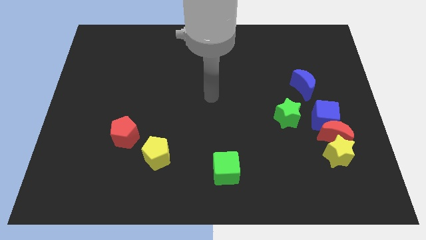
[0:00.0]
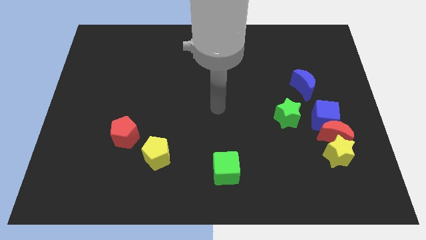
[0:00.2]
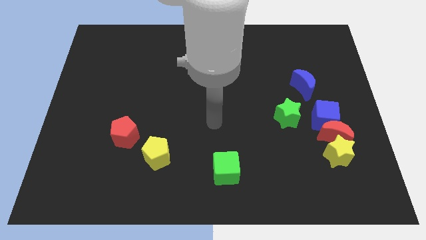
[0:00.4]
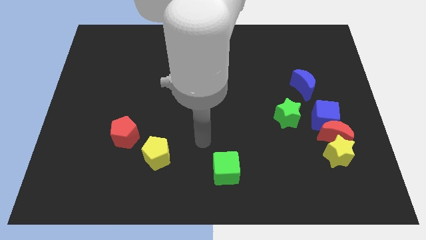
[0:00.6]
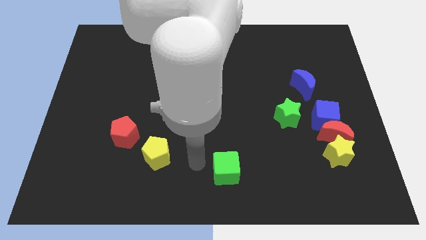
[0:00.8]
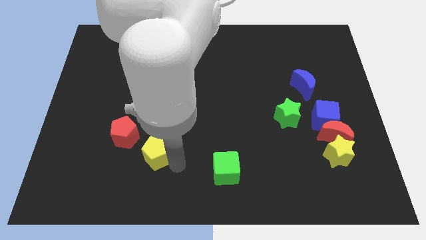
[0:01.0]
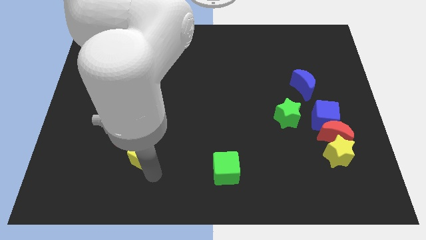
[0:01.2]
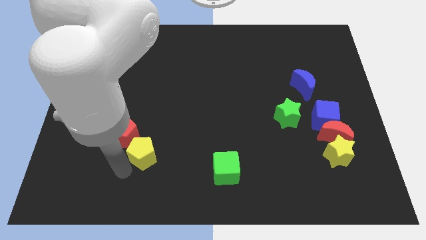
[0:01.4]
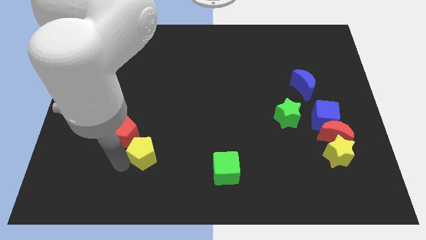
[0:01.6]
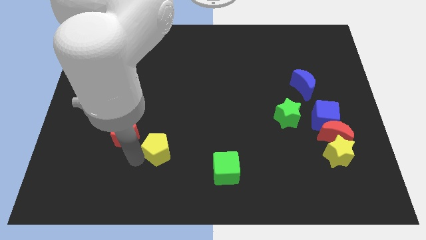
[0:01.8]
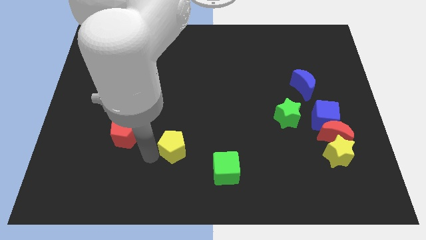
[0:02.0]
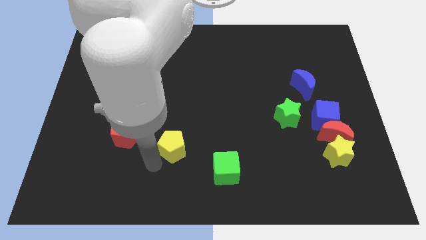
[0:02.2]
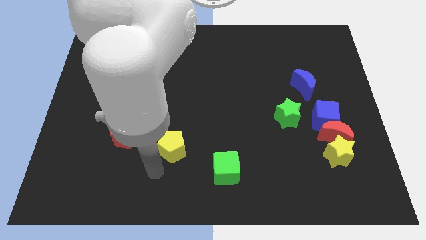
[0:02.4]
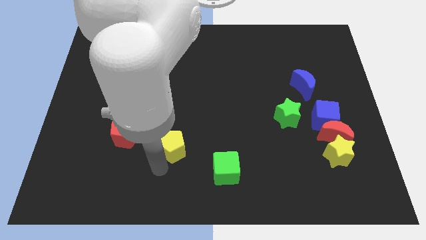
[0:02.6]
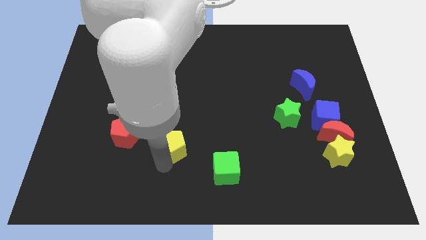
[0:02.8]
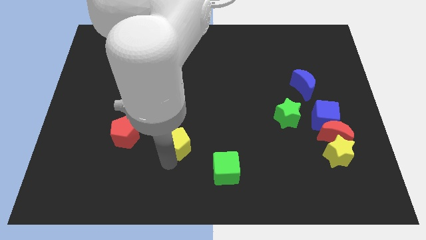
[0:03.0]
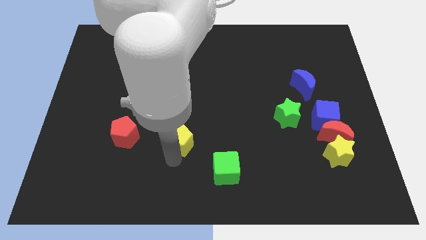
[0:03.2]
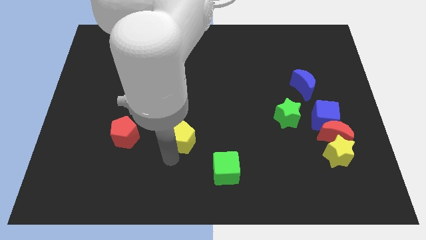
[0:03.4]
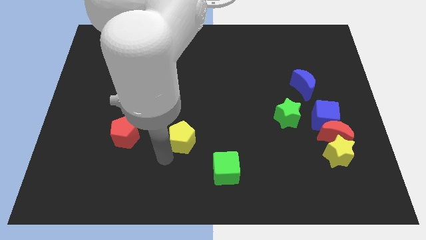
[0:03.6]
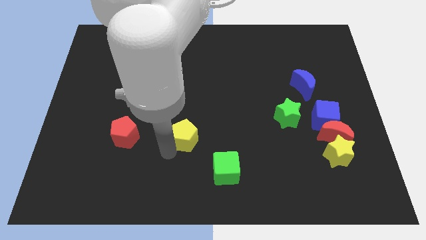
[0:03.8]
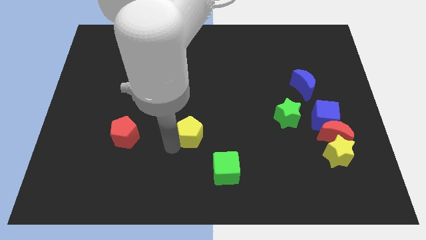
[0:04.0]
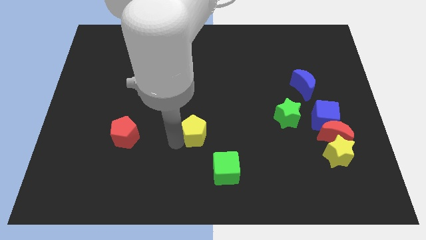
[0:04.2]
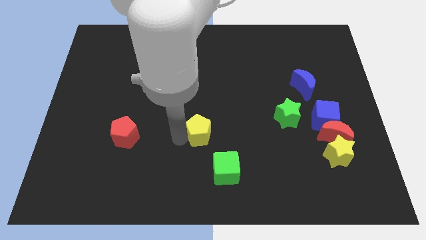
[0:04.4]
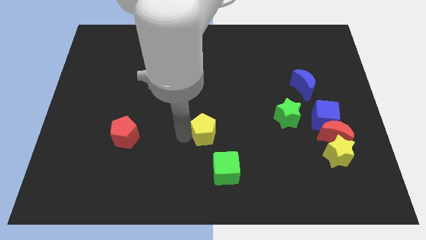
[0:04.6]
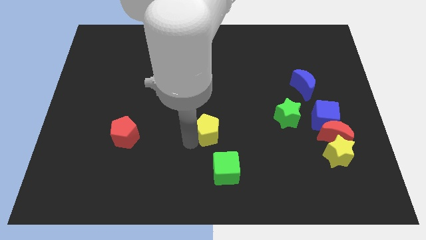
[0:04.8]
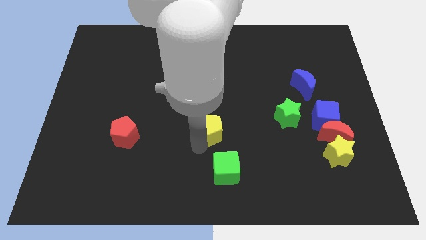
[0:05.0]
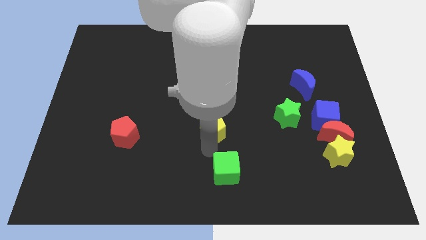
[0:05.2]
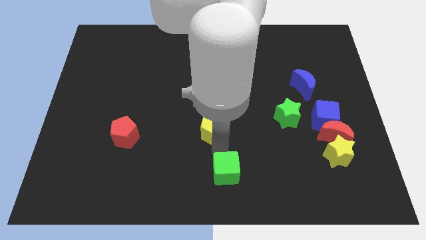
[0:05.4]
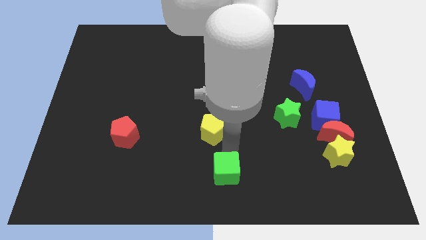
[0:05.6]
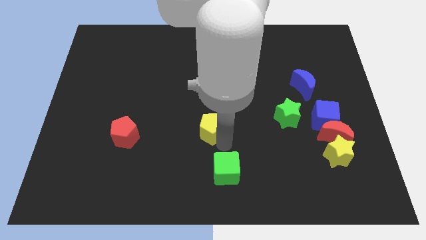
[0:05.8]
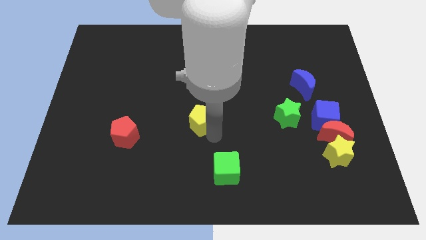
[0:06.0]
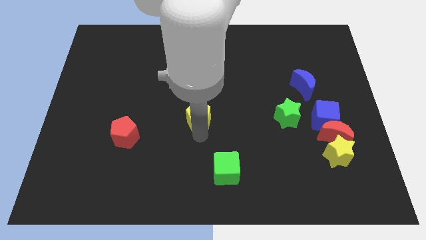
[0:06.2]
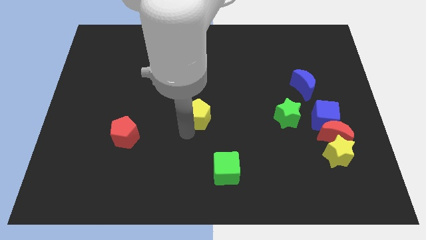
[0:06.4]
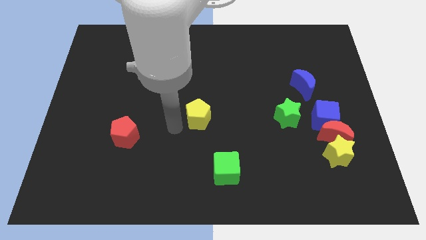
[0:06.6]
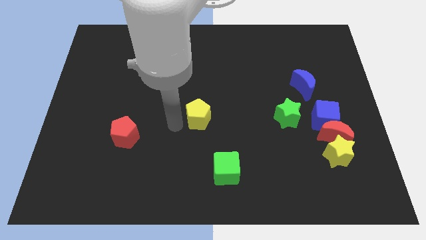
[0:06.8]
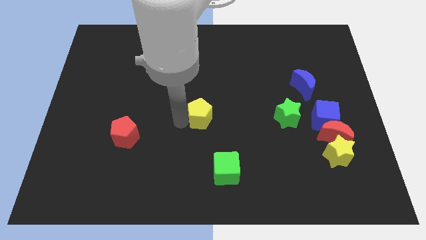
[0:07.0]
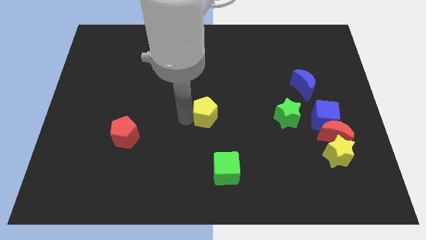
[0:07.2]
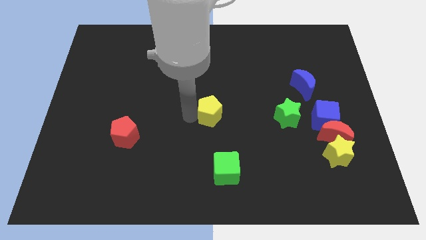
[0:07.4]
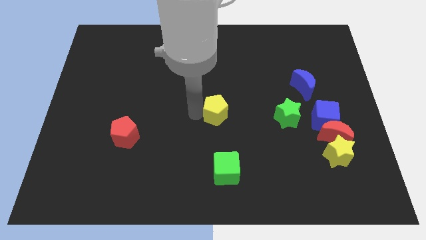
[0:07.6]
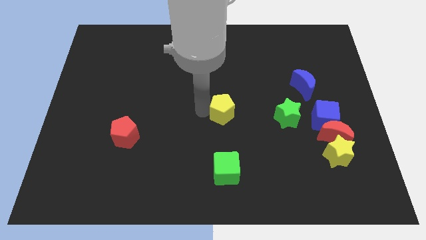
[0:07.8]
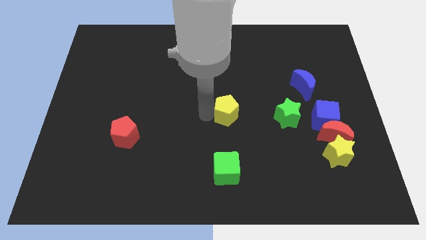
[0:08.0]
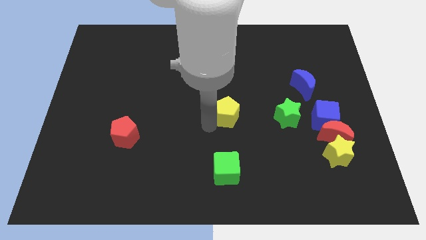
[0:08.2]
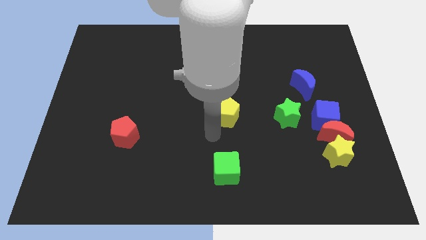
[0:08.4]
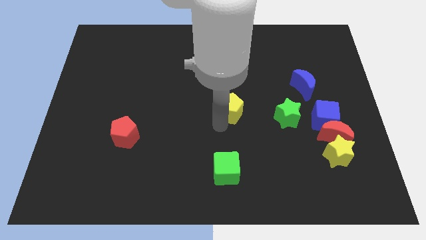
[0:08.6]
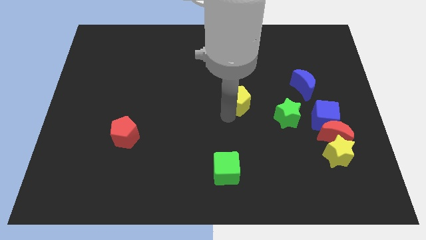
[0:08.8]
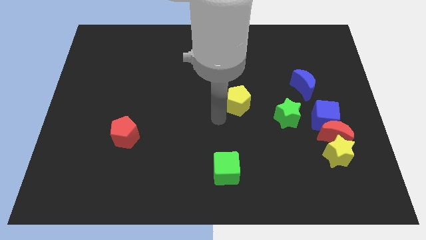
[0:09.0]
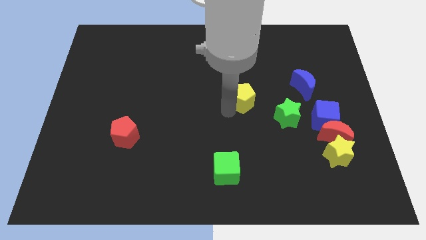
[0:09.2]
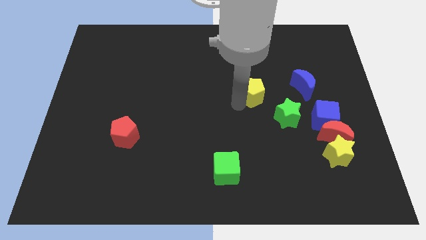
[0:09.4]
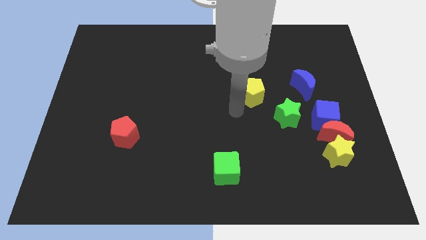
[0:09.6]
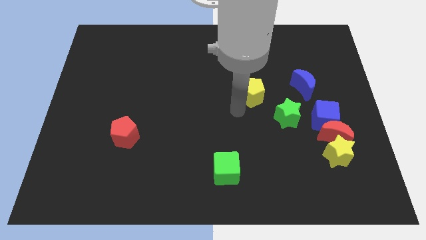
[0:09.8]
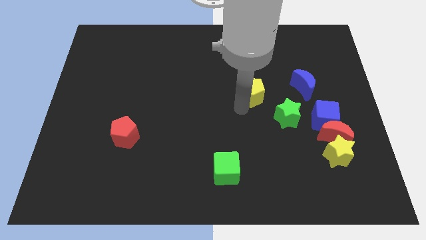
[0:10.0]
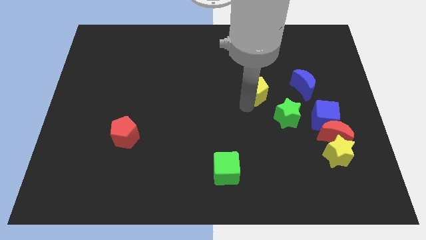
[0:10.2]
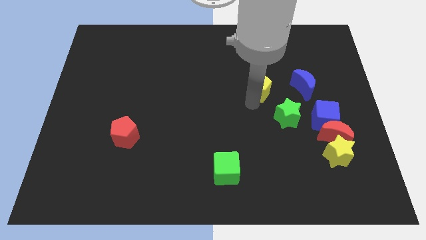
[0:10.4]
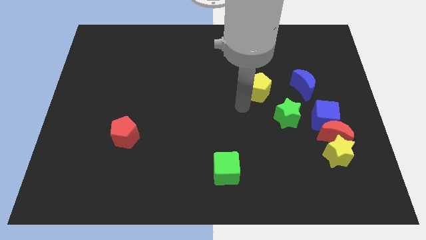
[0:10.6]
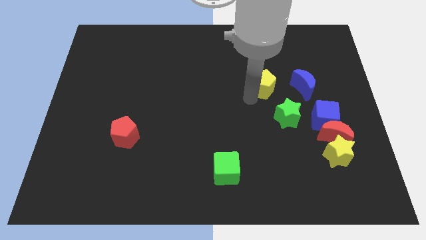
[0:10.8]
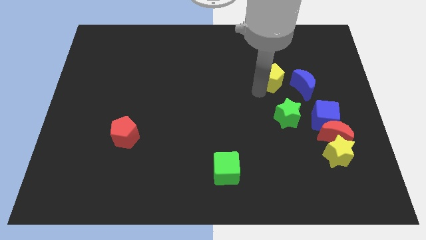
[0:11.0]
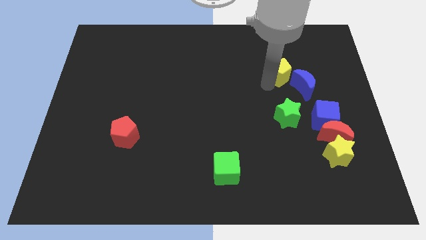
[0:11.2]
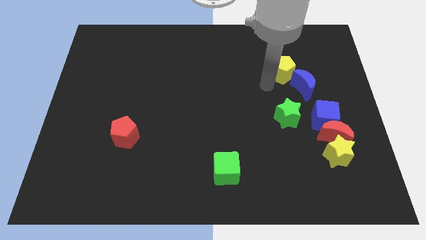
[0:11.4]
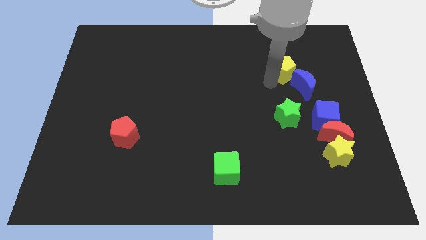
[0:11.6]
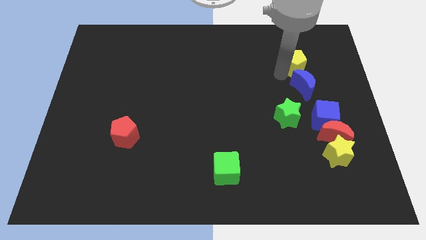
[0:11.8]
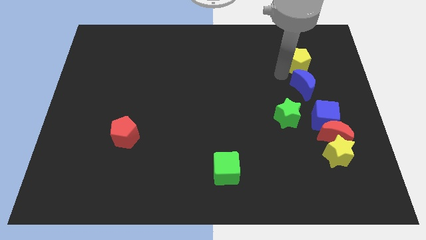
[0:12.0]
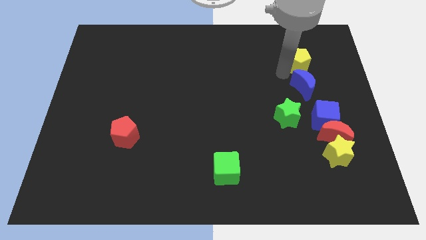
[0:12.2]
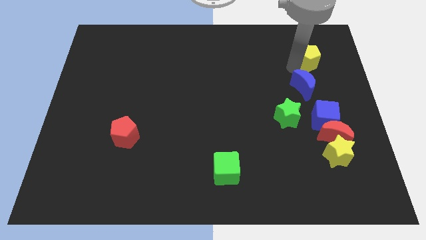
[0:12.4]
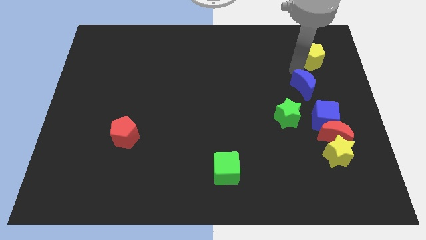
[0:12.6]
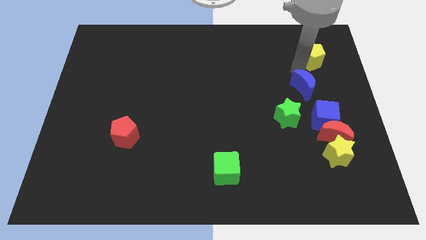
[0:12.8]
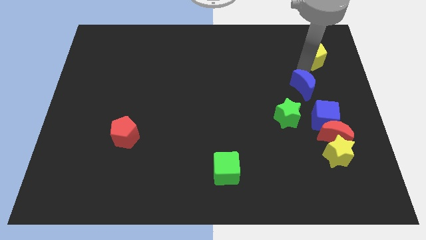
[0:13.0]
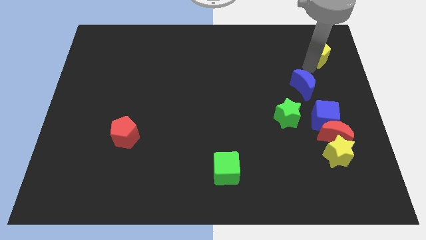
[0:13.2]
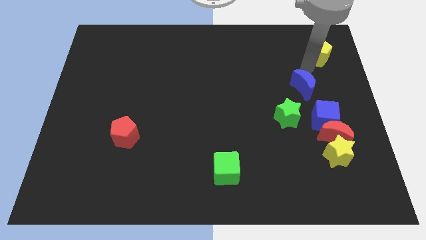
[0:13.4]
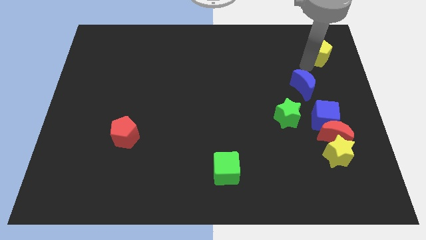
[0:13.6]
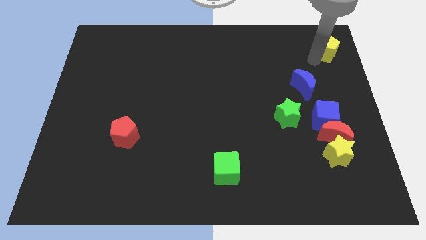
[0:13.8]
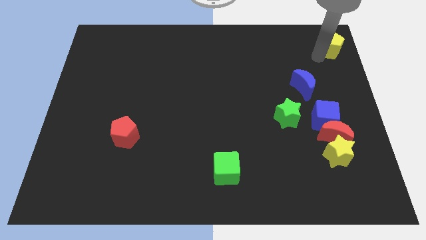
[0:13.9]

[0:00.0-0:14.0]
put the yellow pentagon to the top right of the board
